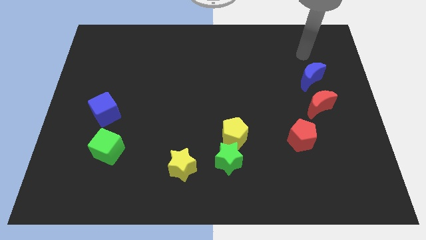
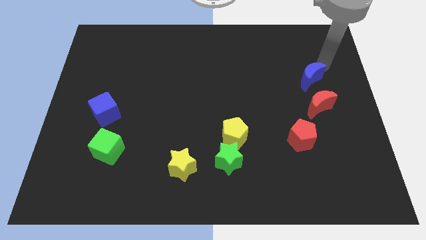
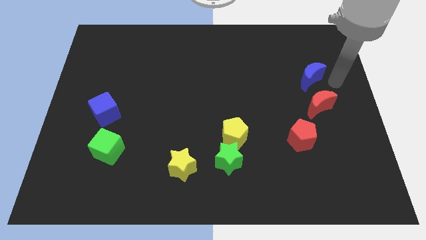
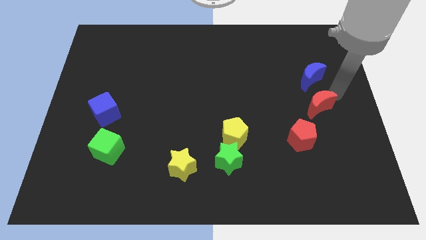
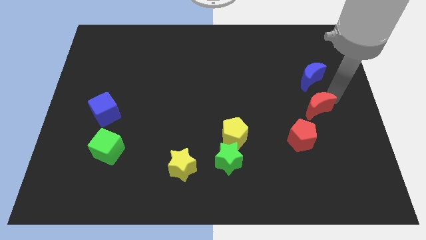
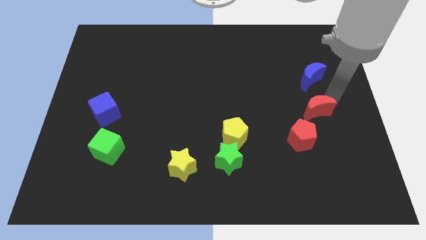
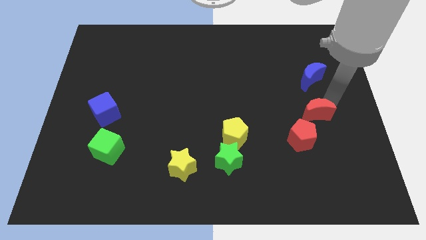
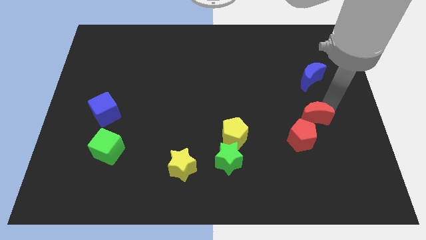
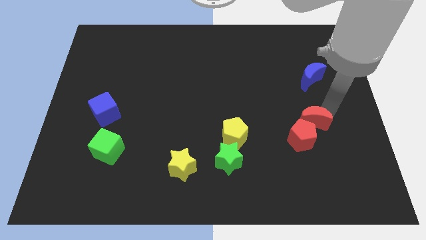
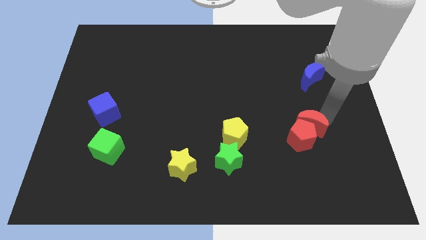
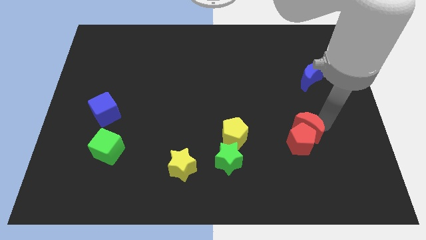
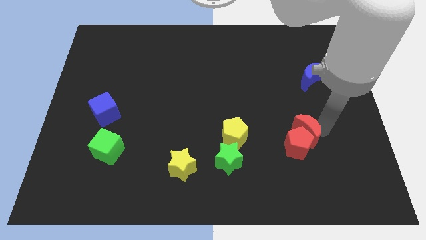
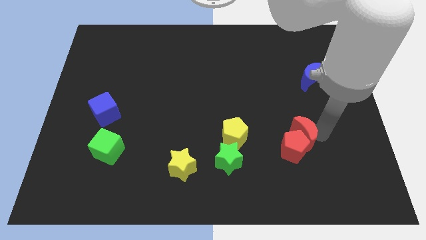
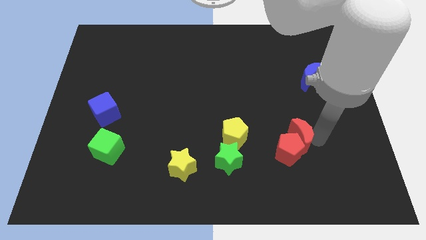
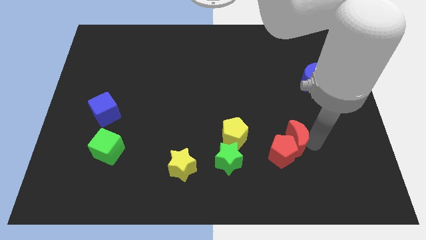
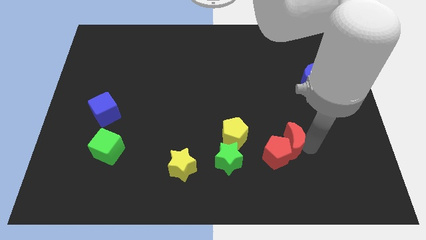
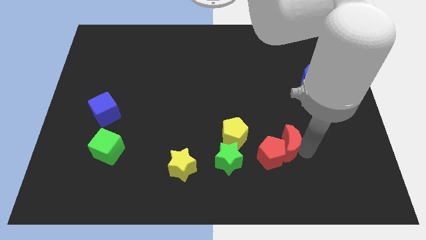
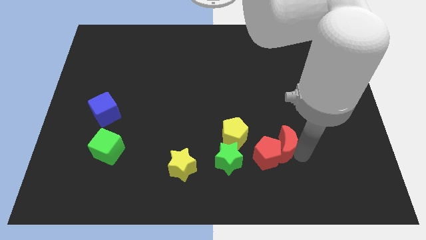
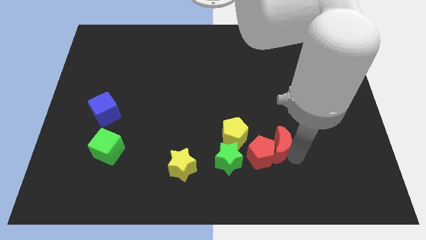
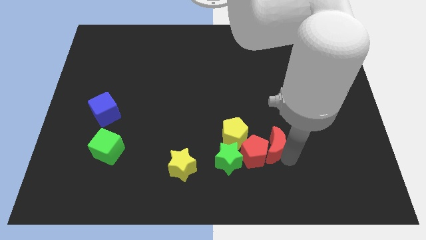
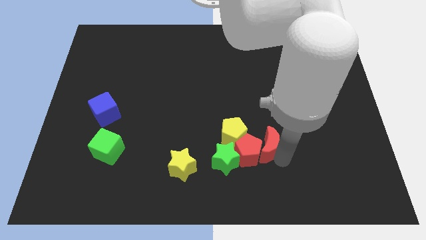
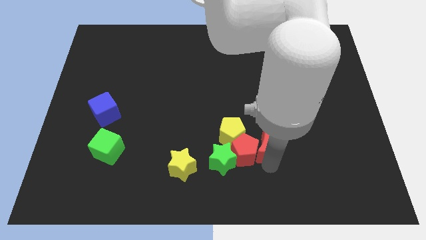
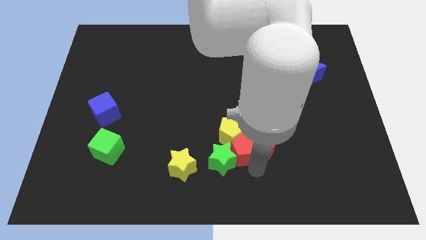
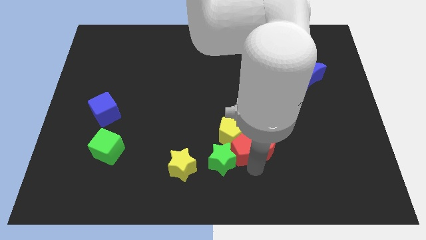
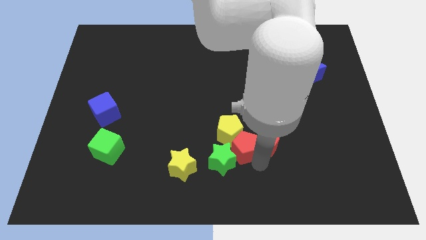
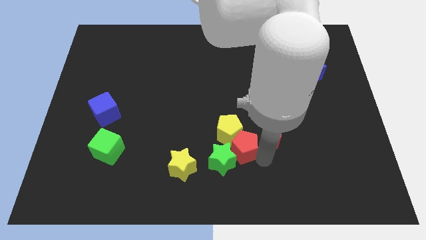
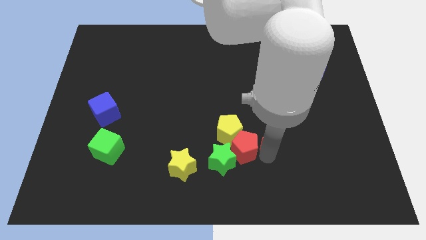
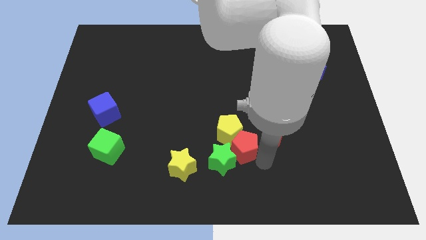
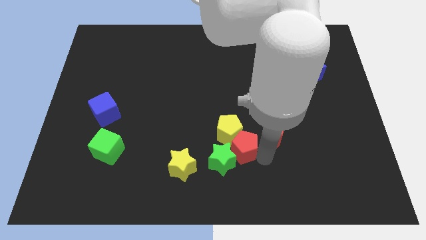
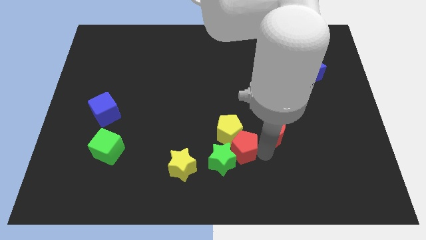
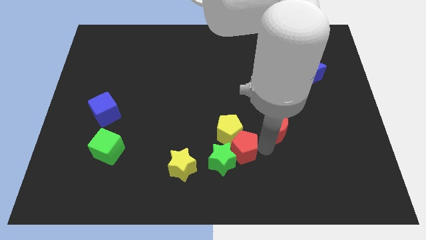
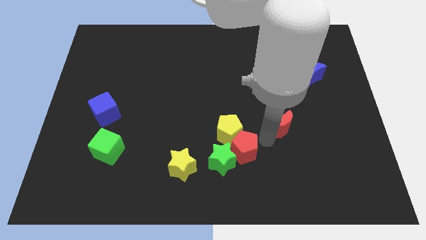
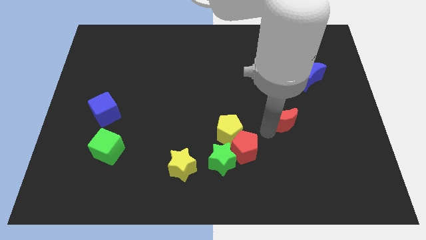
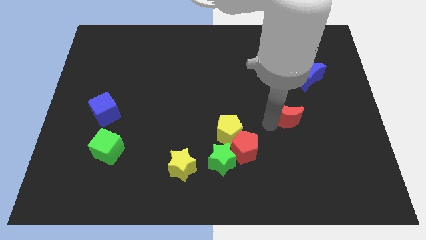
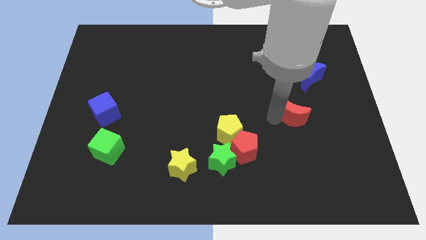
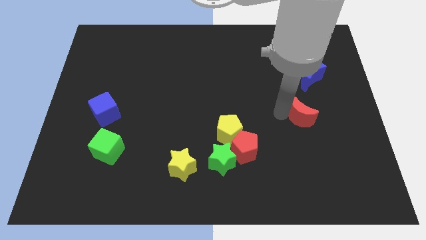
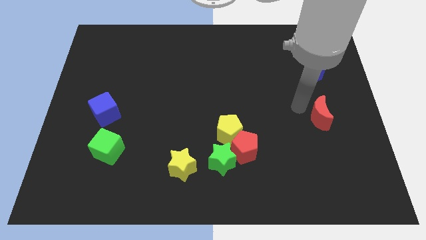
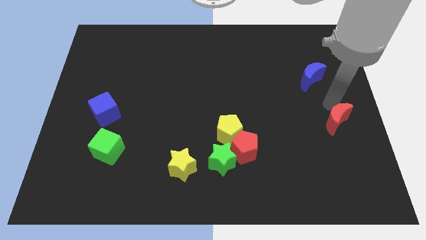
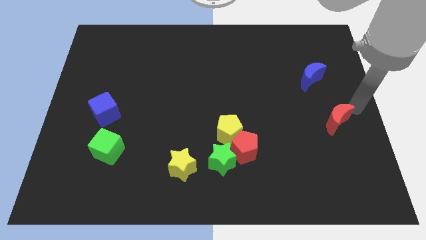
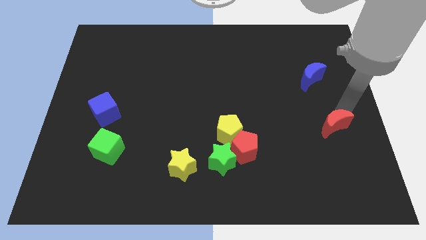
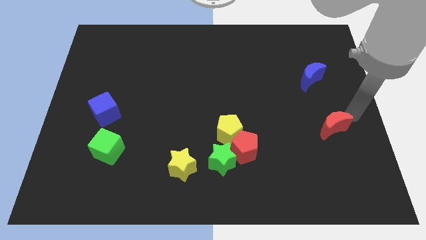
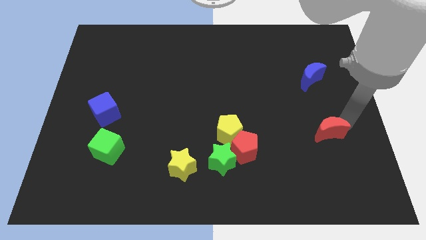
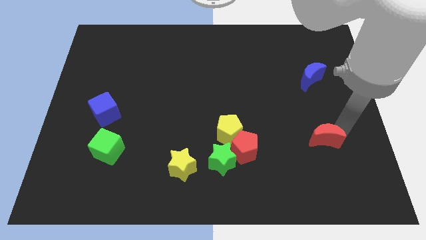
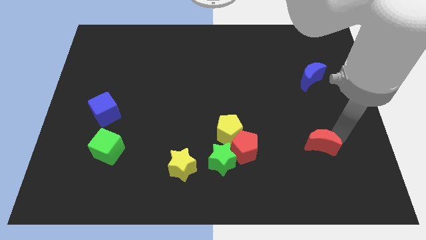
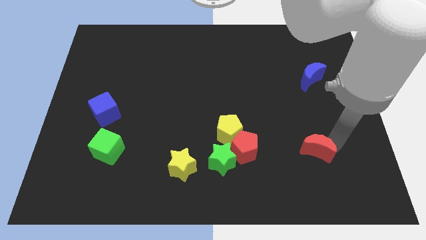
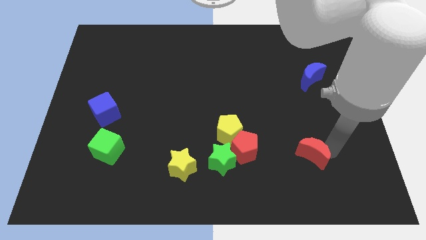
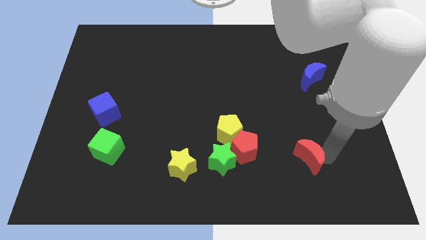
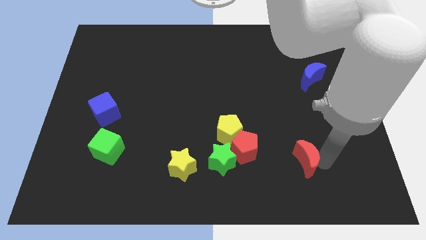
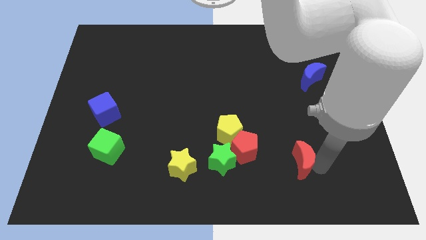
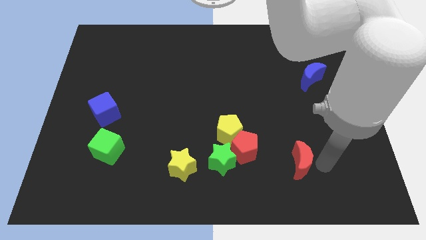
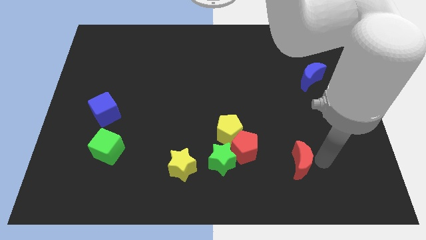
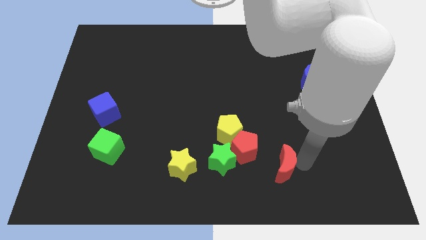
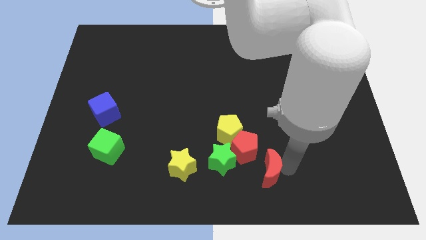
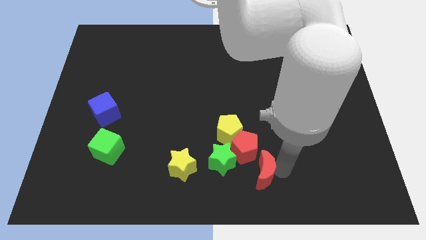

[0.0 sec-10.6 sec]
put the red moon to the bottom side

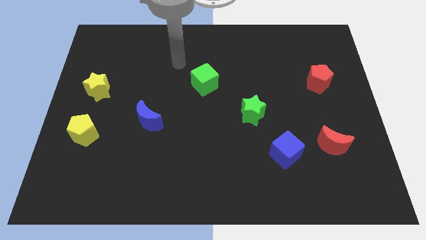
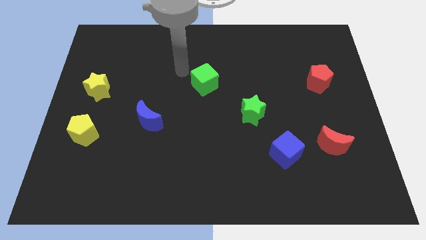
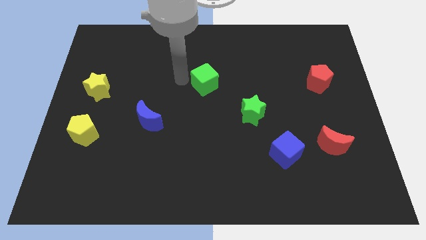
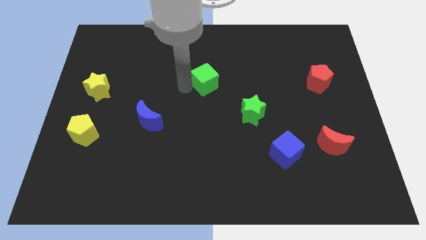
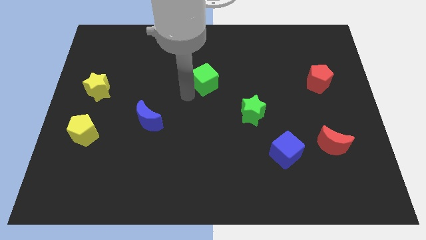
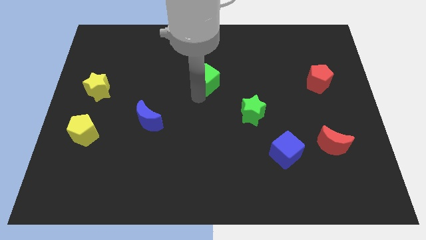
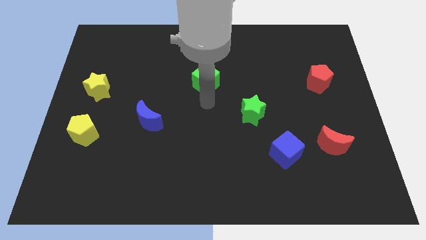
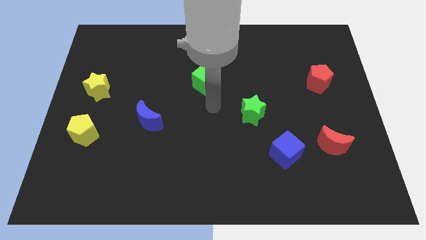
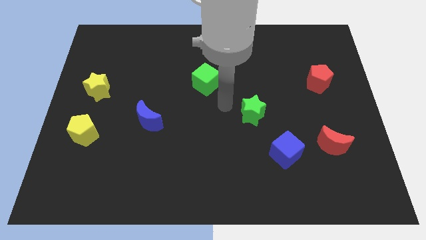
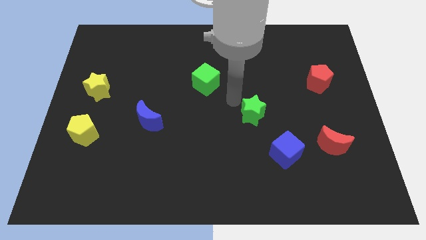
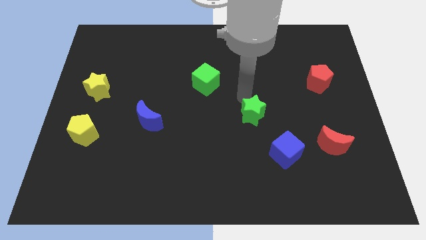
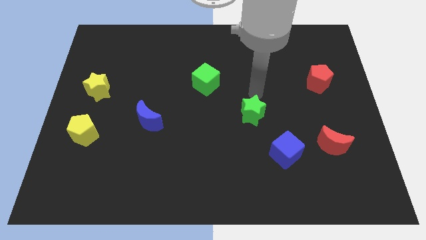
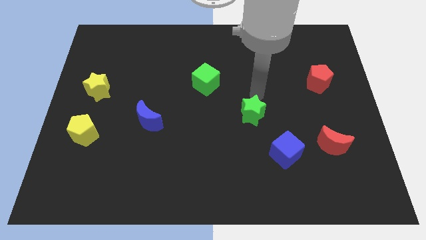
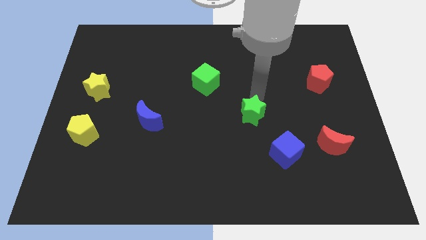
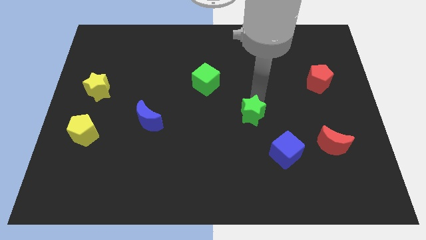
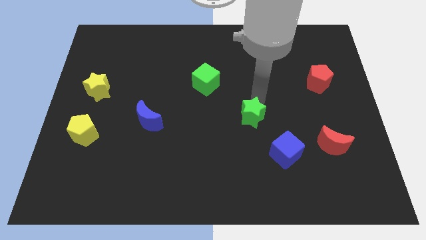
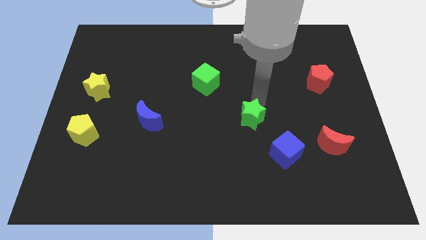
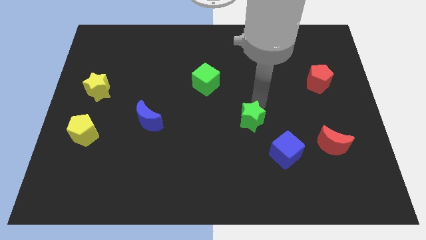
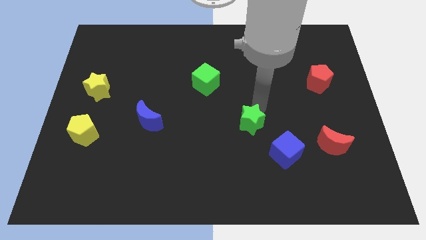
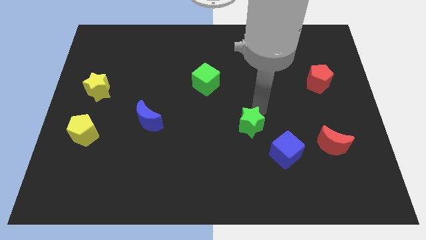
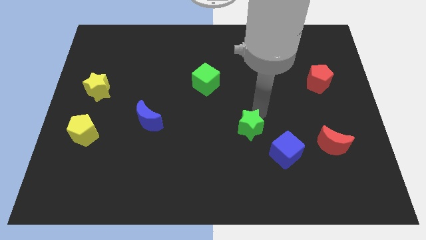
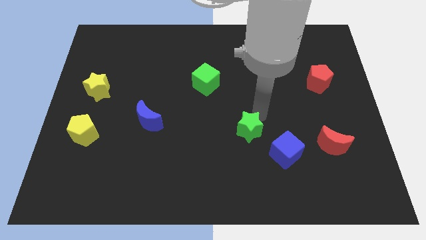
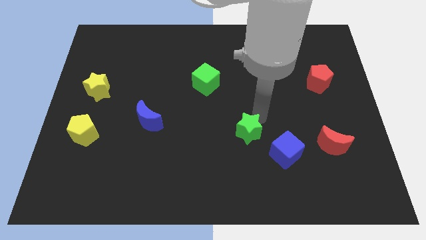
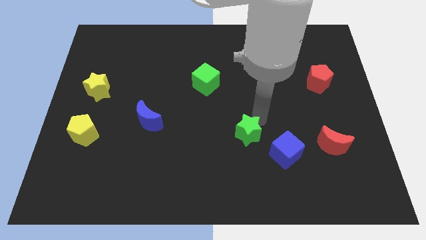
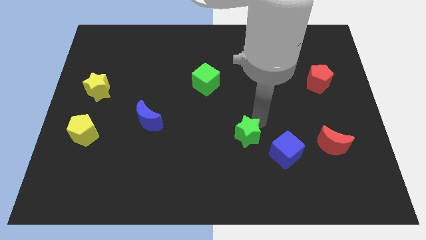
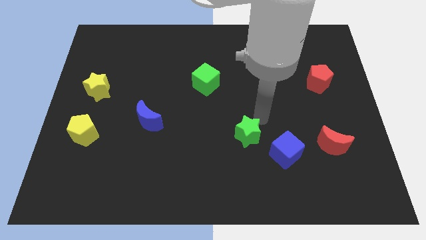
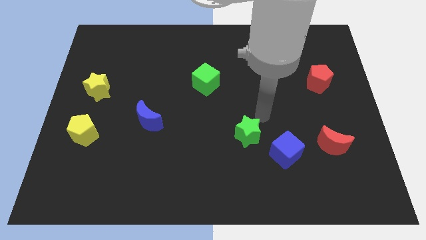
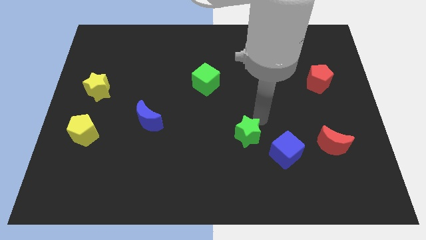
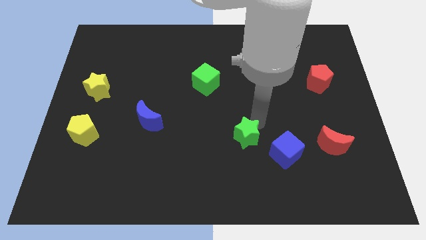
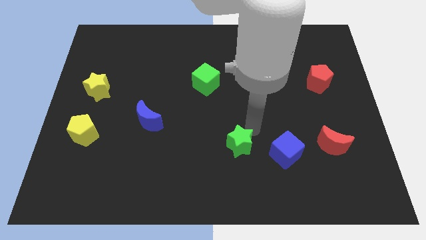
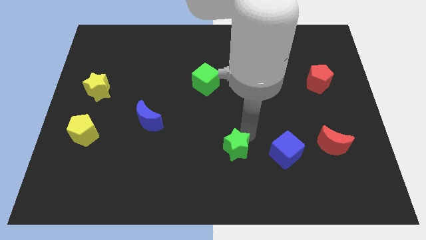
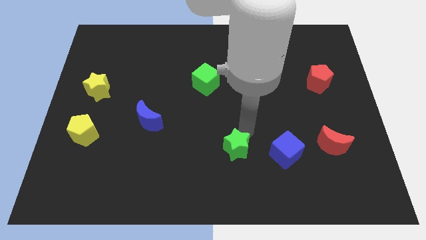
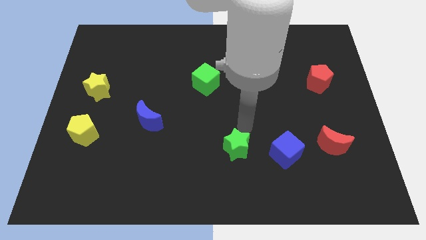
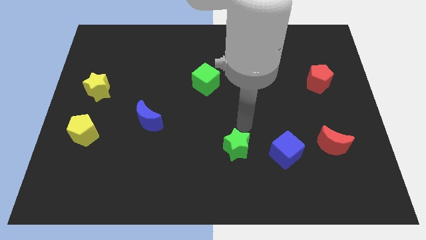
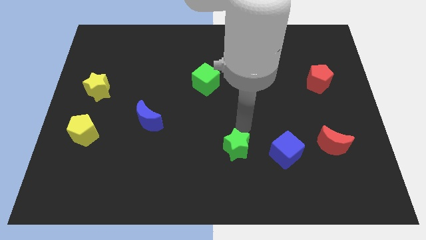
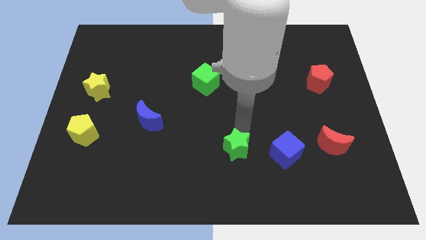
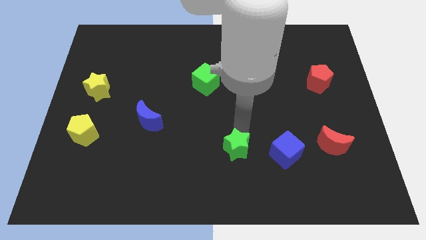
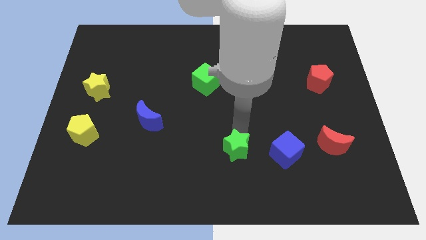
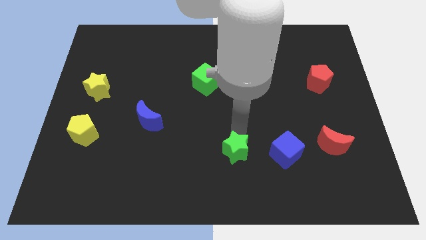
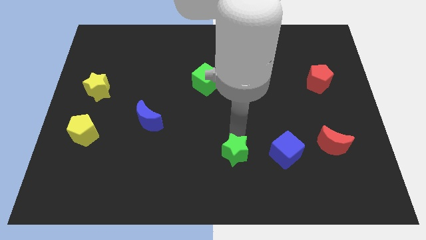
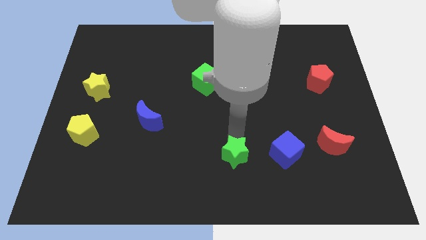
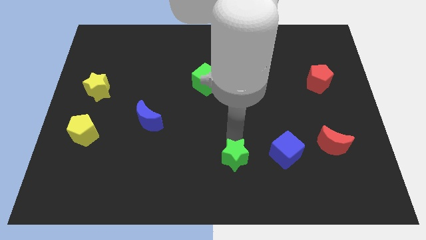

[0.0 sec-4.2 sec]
move the green star to the bottom side
